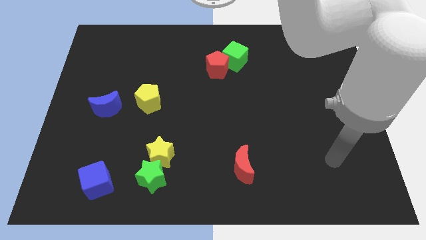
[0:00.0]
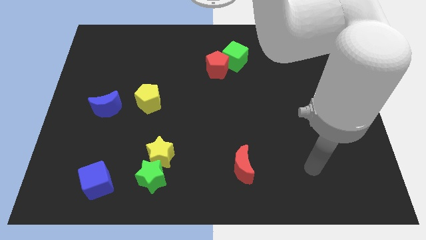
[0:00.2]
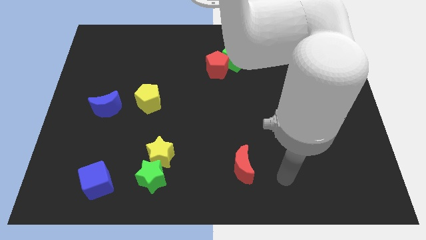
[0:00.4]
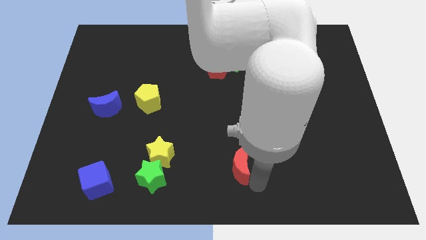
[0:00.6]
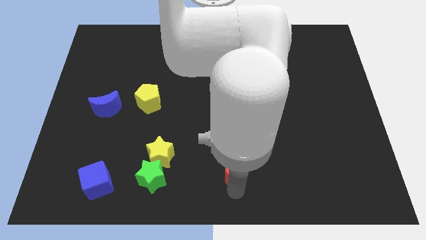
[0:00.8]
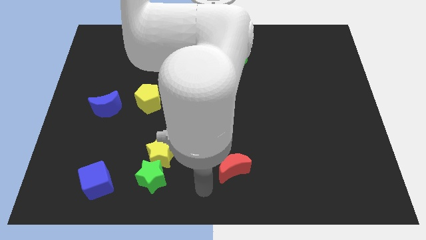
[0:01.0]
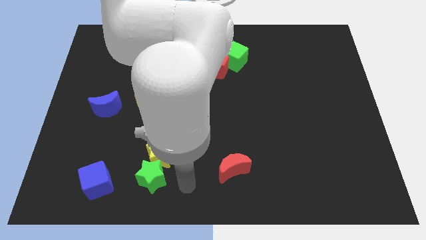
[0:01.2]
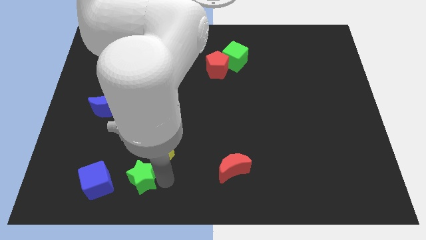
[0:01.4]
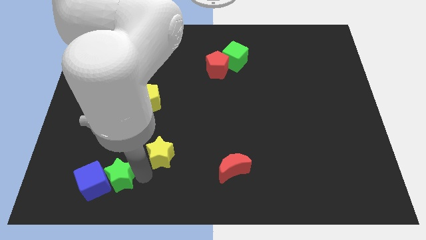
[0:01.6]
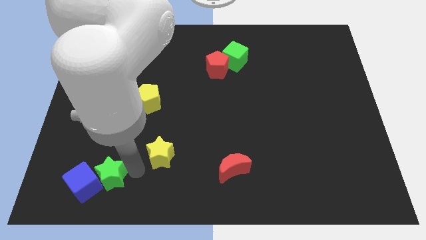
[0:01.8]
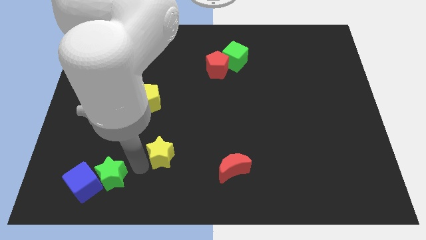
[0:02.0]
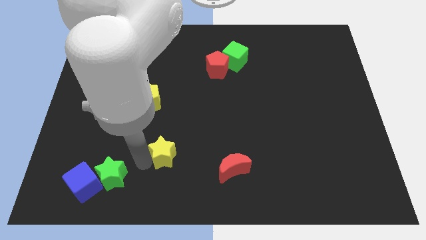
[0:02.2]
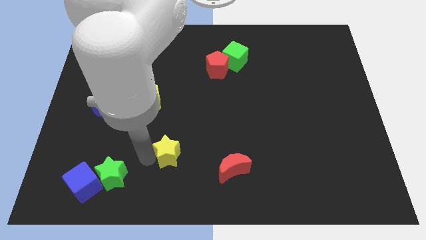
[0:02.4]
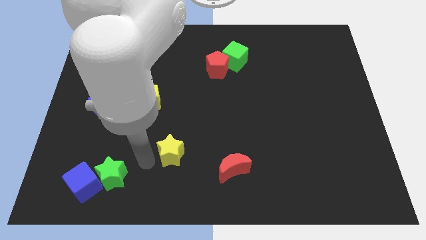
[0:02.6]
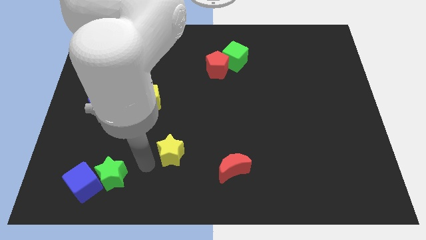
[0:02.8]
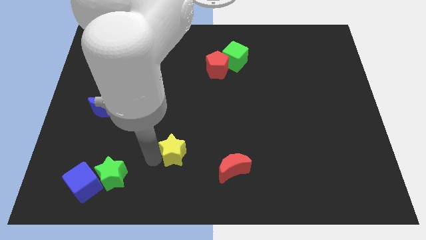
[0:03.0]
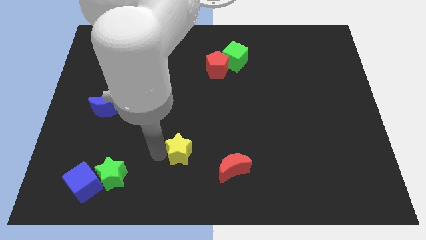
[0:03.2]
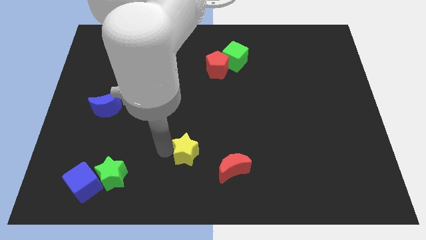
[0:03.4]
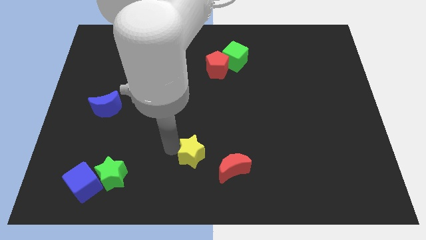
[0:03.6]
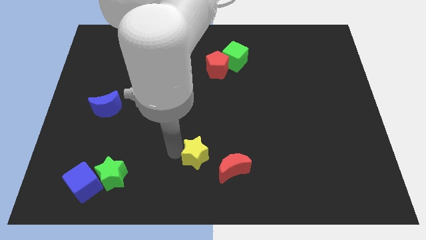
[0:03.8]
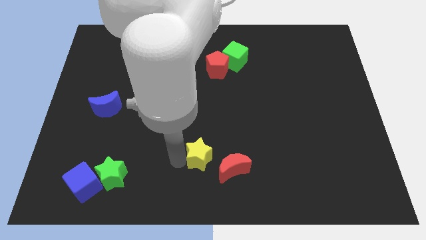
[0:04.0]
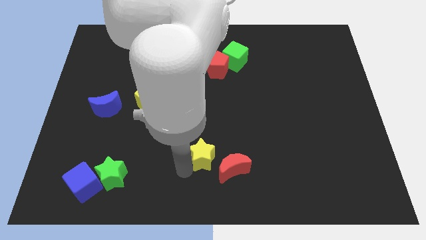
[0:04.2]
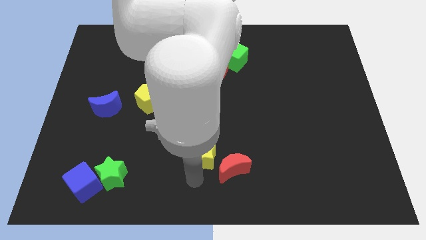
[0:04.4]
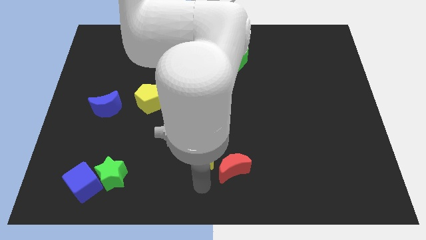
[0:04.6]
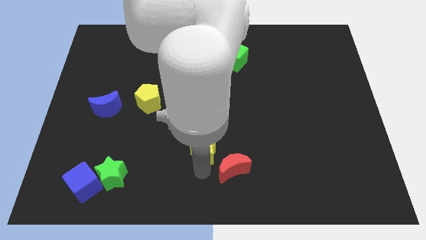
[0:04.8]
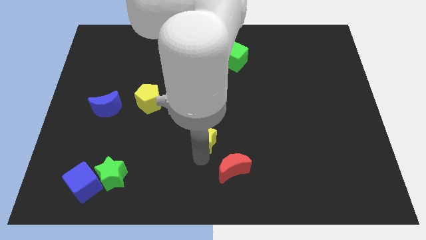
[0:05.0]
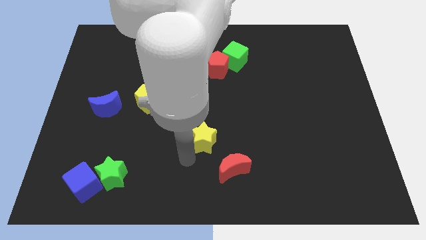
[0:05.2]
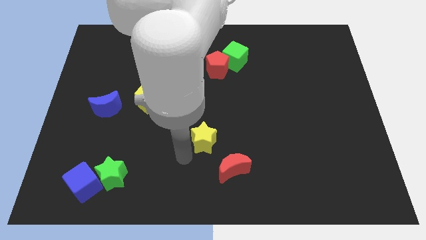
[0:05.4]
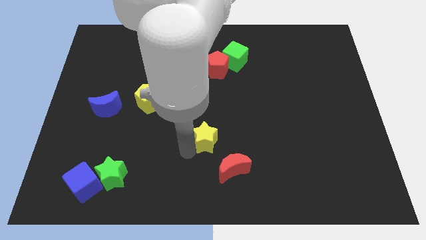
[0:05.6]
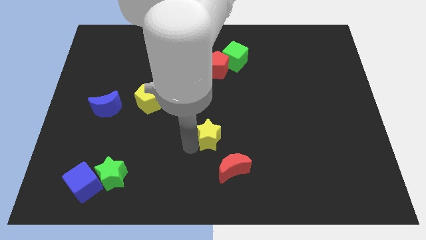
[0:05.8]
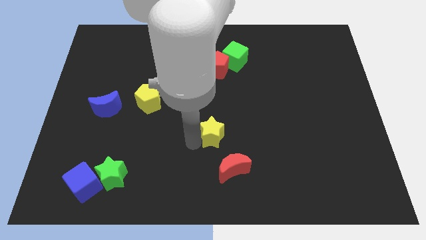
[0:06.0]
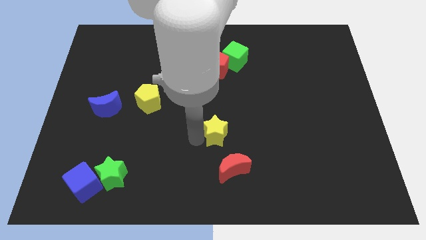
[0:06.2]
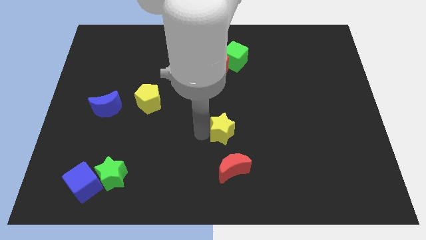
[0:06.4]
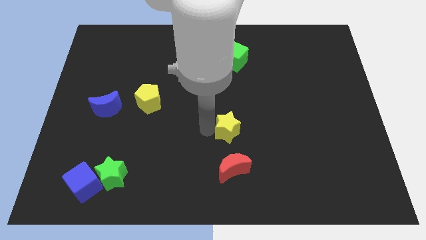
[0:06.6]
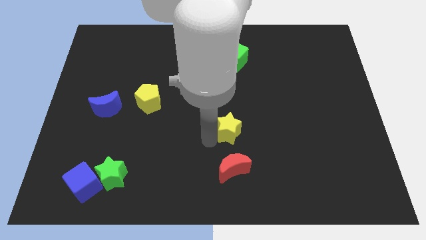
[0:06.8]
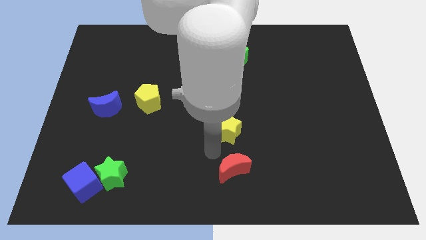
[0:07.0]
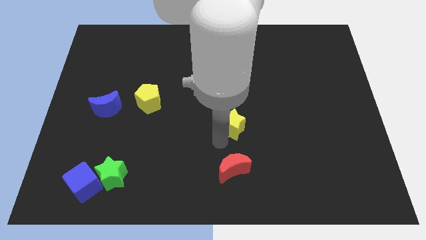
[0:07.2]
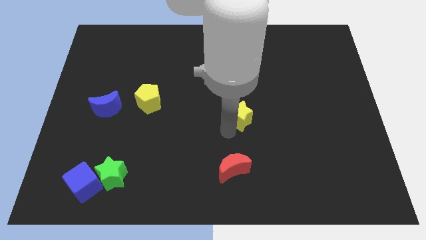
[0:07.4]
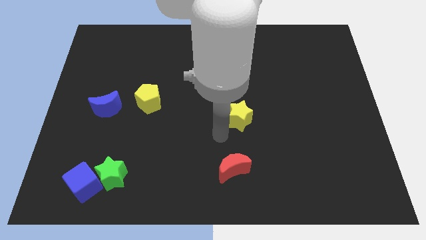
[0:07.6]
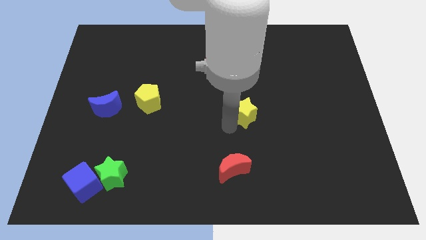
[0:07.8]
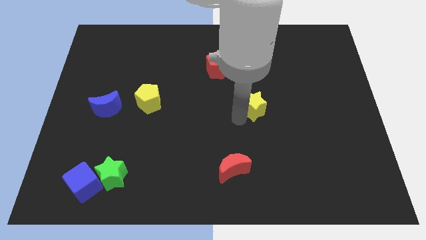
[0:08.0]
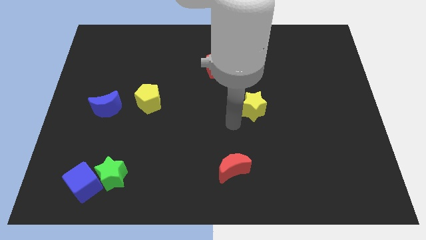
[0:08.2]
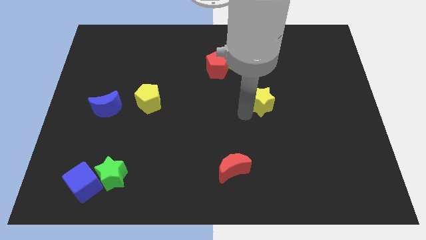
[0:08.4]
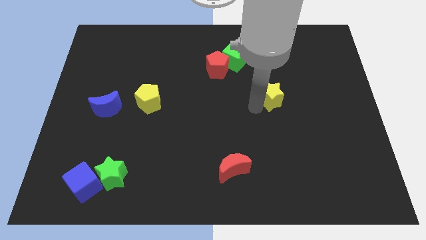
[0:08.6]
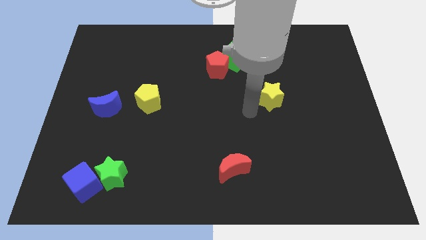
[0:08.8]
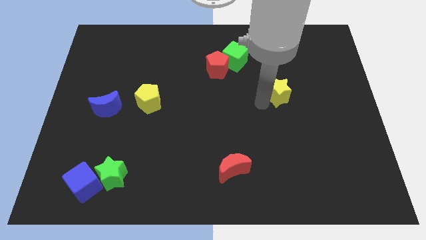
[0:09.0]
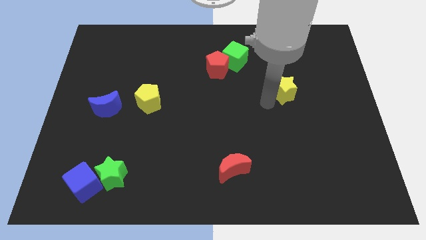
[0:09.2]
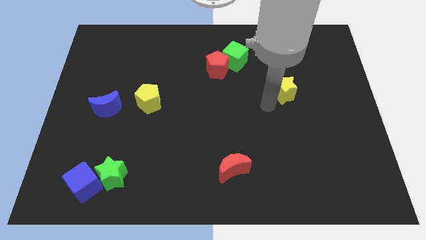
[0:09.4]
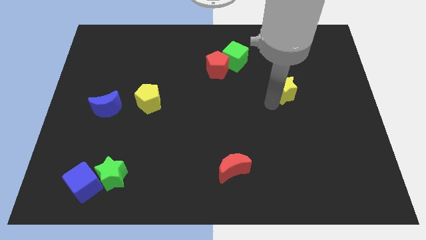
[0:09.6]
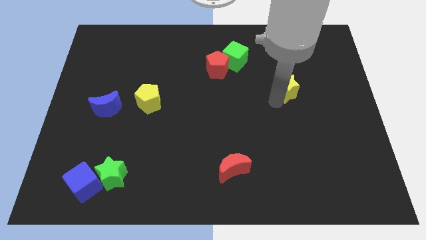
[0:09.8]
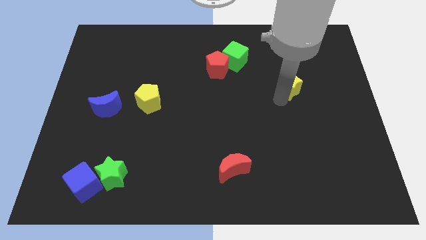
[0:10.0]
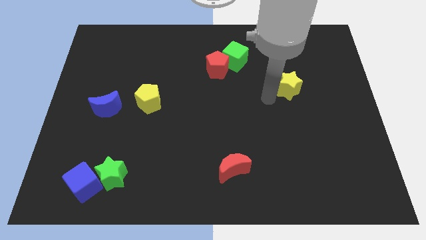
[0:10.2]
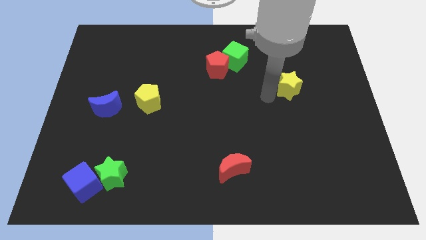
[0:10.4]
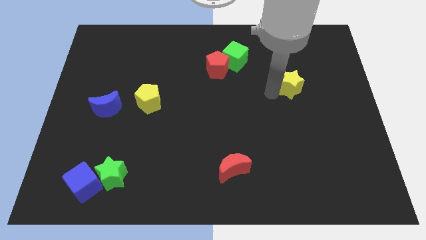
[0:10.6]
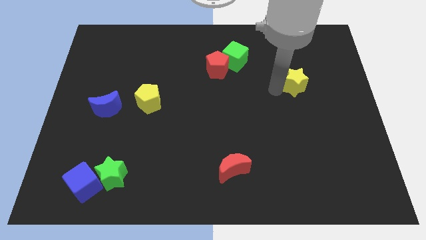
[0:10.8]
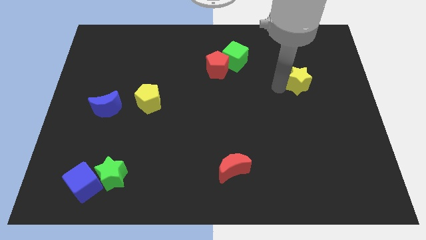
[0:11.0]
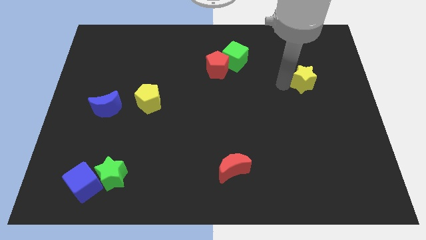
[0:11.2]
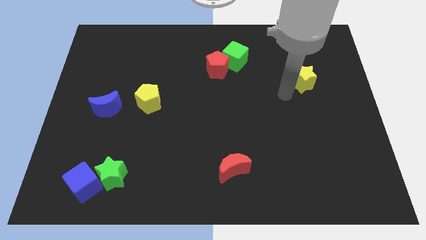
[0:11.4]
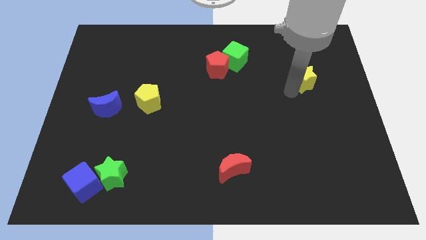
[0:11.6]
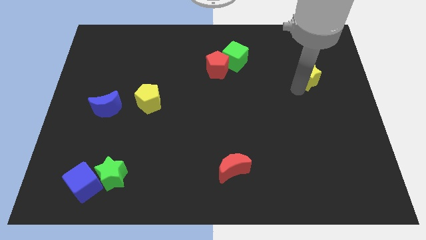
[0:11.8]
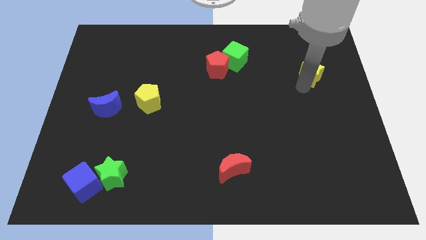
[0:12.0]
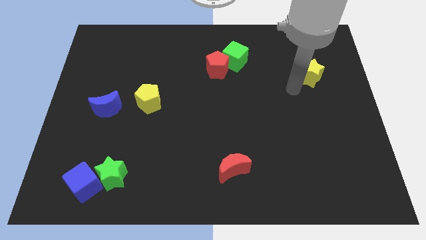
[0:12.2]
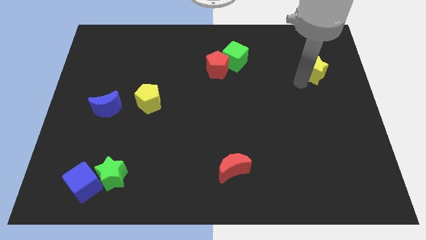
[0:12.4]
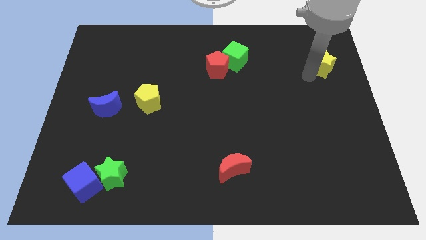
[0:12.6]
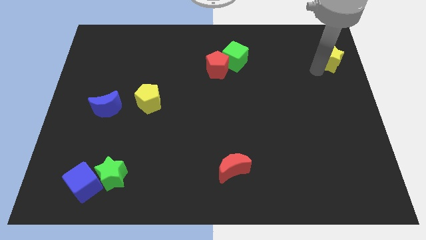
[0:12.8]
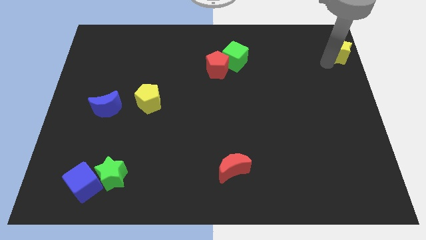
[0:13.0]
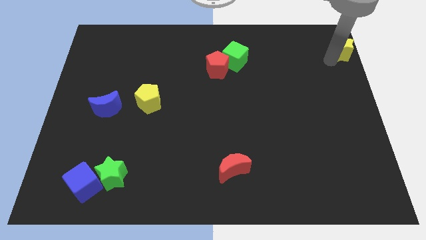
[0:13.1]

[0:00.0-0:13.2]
push the yellow star to the top right of the board

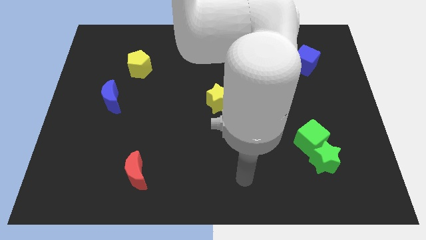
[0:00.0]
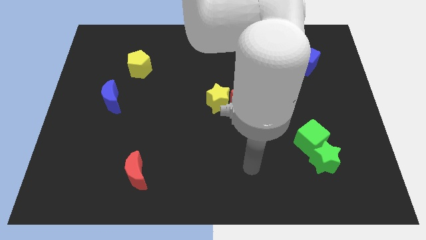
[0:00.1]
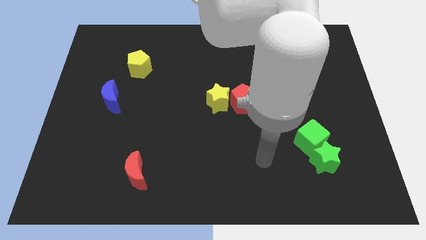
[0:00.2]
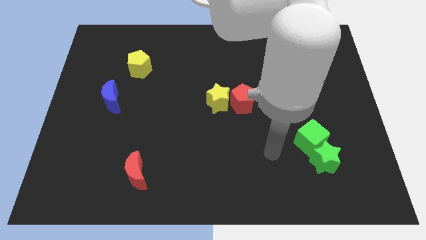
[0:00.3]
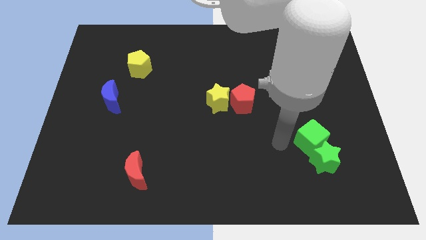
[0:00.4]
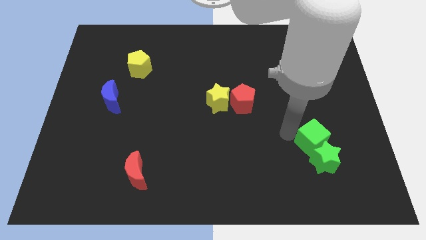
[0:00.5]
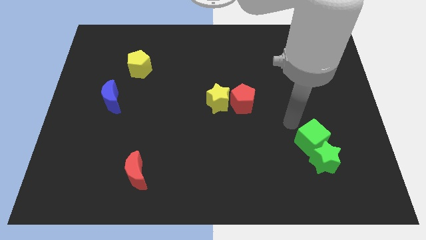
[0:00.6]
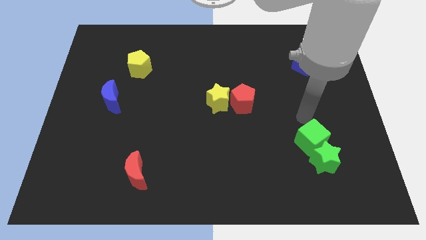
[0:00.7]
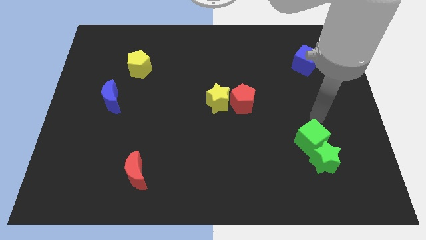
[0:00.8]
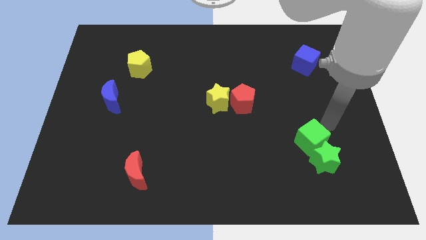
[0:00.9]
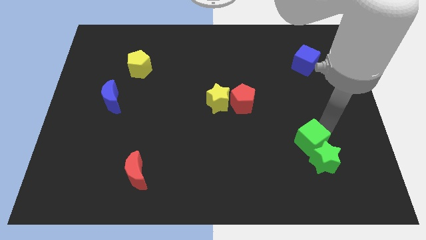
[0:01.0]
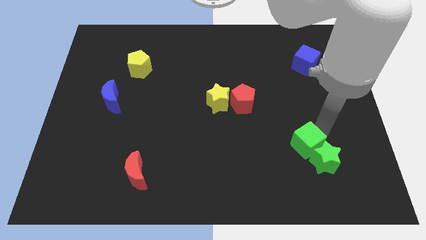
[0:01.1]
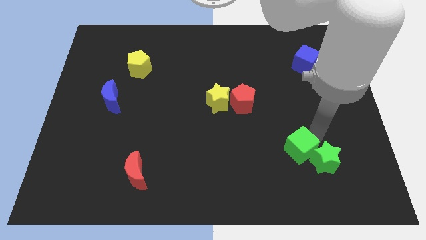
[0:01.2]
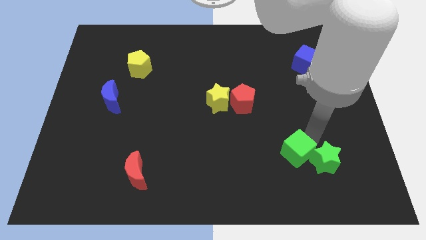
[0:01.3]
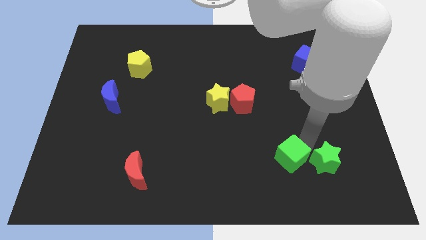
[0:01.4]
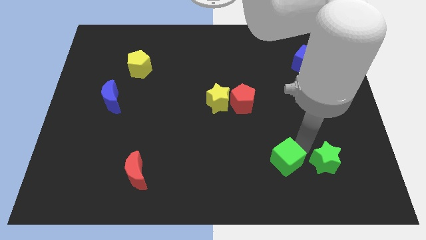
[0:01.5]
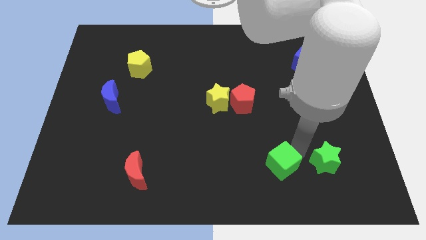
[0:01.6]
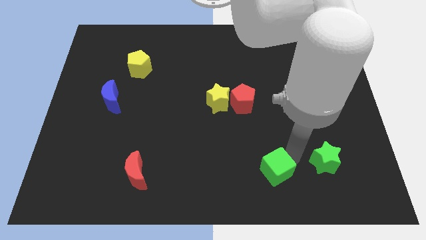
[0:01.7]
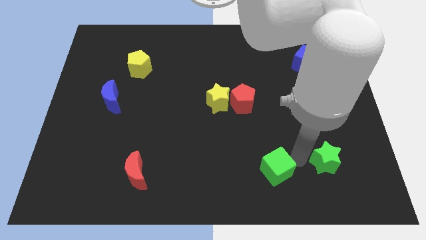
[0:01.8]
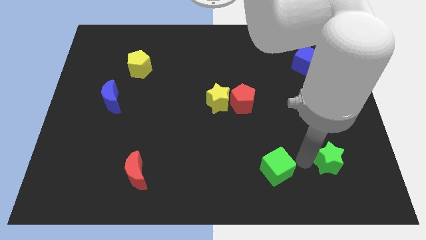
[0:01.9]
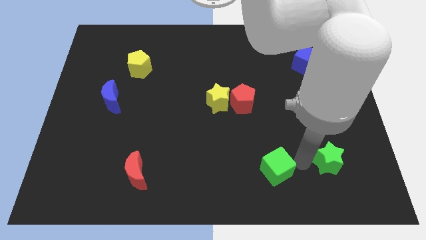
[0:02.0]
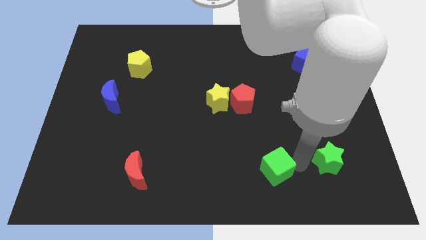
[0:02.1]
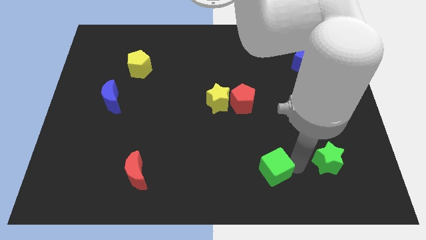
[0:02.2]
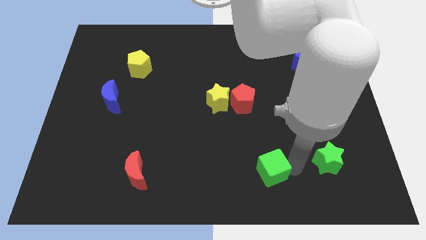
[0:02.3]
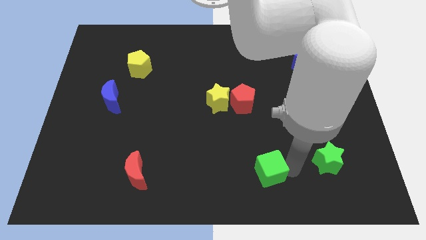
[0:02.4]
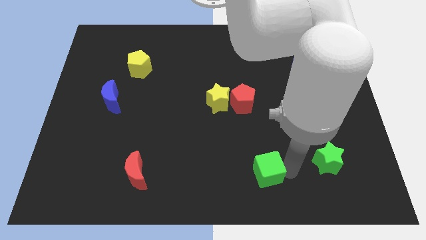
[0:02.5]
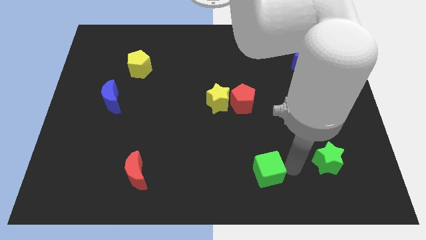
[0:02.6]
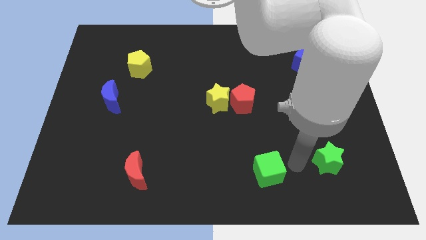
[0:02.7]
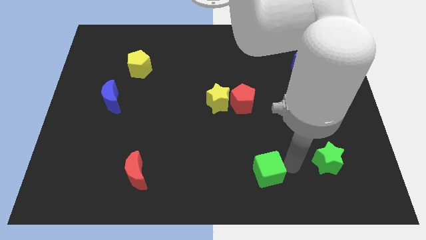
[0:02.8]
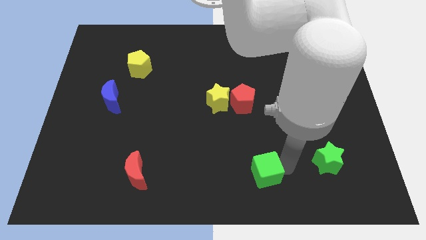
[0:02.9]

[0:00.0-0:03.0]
move the green cube to the bottom
